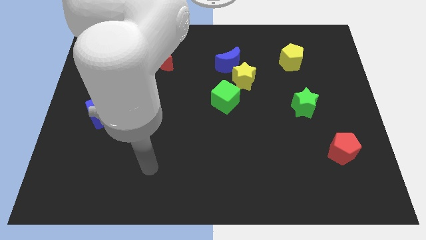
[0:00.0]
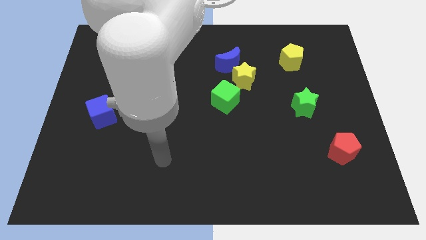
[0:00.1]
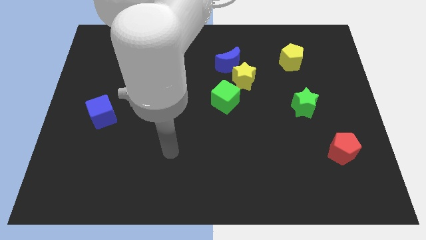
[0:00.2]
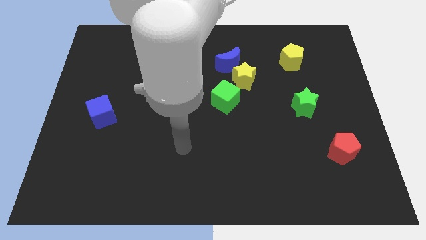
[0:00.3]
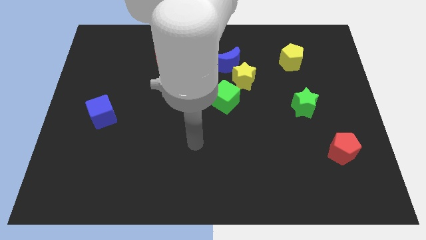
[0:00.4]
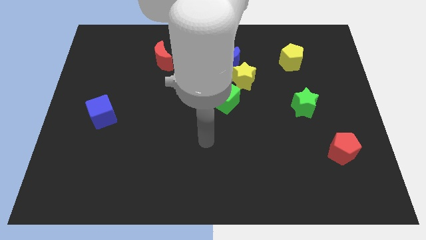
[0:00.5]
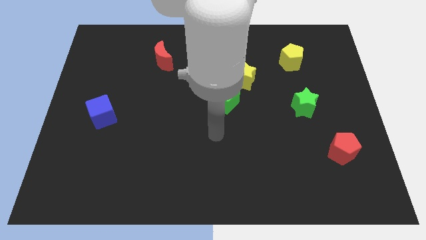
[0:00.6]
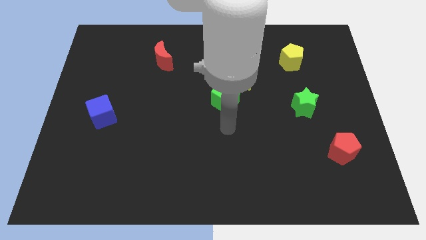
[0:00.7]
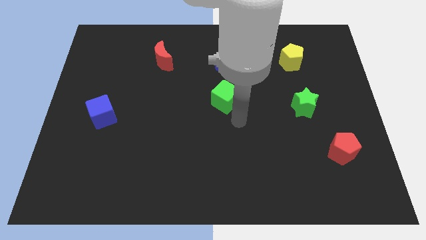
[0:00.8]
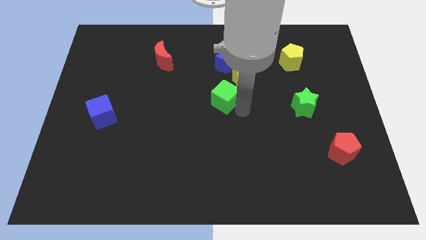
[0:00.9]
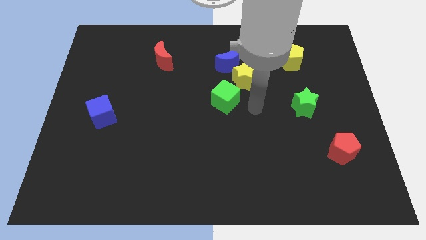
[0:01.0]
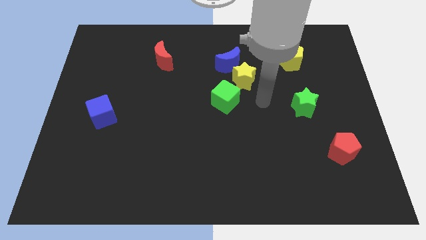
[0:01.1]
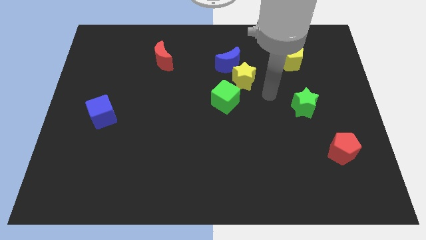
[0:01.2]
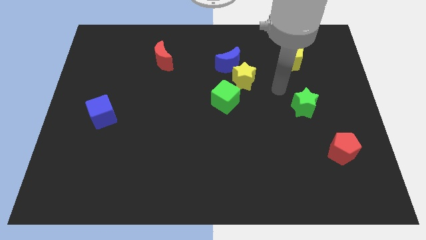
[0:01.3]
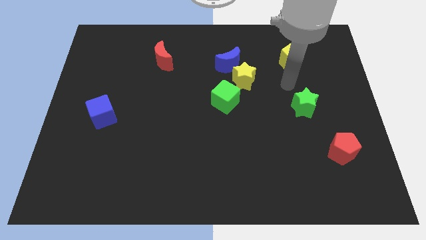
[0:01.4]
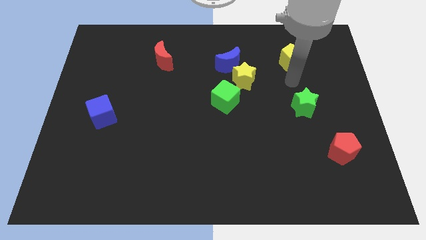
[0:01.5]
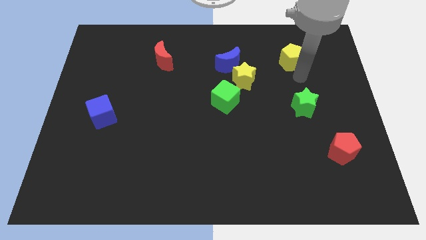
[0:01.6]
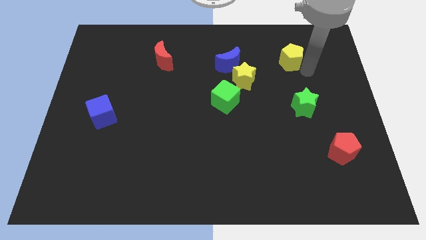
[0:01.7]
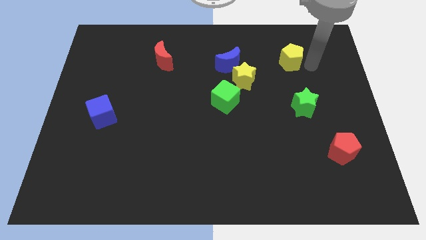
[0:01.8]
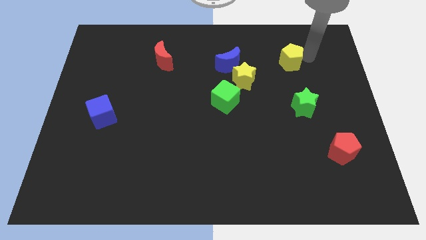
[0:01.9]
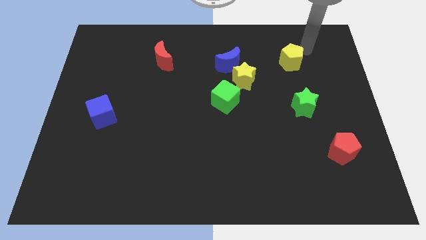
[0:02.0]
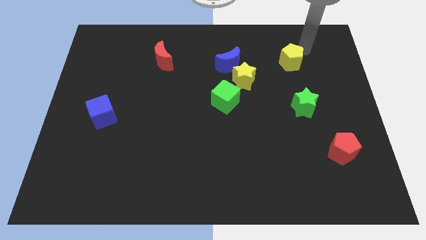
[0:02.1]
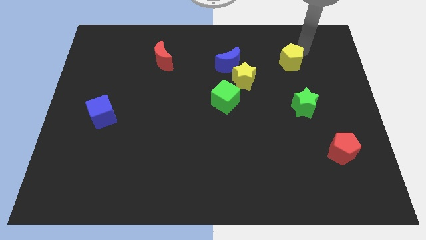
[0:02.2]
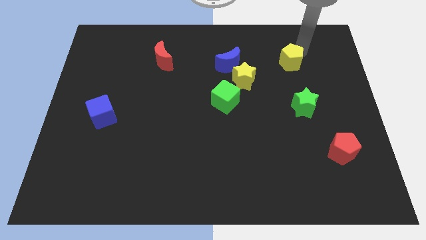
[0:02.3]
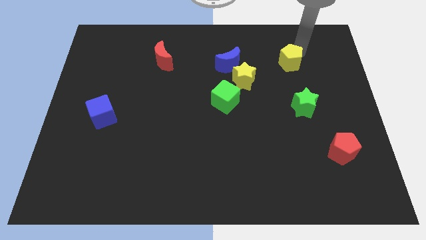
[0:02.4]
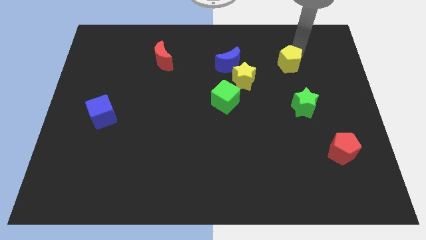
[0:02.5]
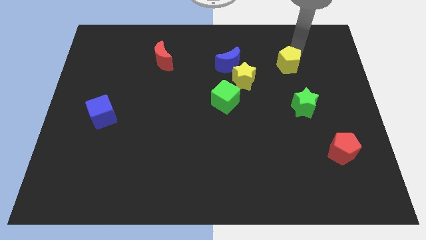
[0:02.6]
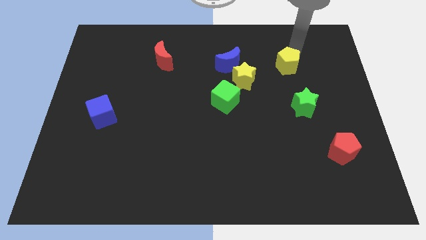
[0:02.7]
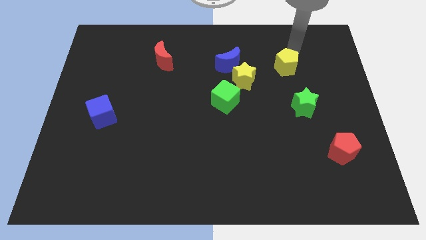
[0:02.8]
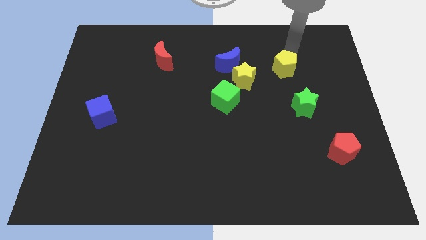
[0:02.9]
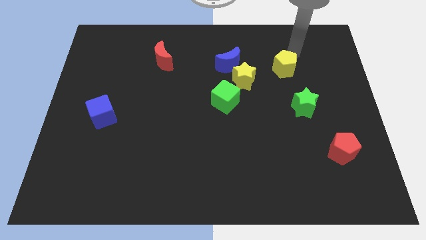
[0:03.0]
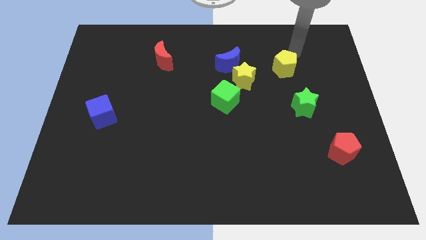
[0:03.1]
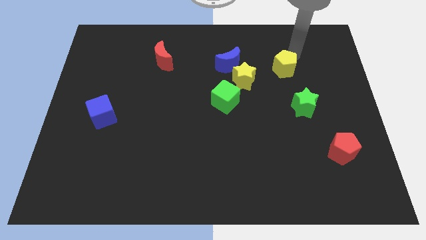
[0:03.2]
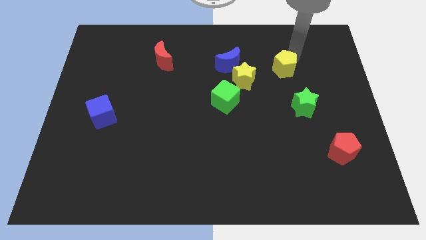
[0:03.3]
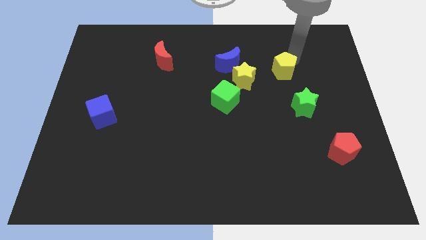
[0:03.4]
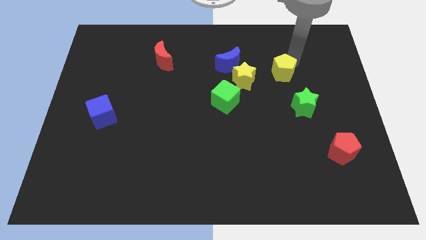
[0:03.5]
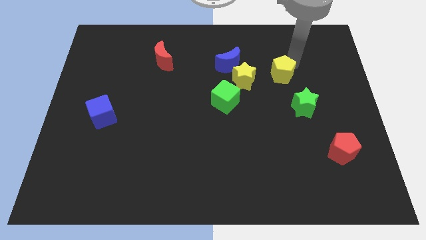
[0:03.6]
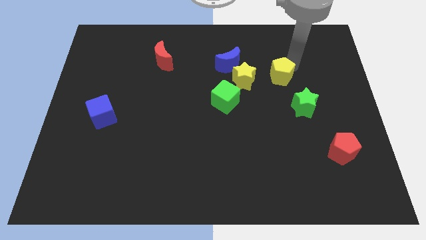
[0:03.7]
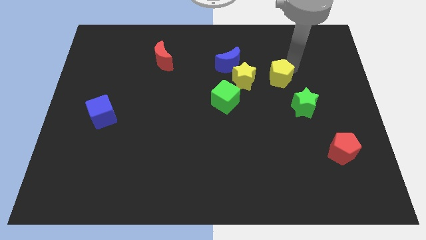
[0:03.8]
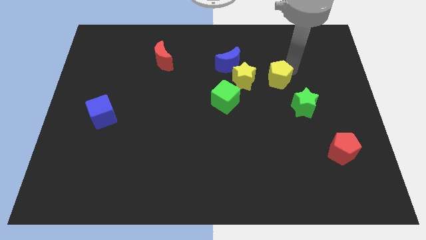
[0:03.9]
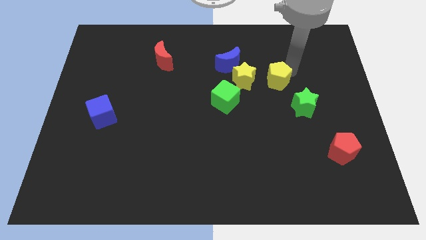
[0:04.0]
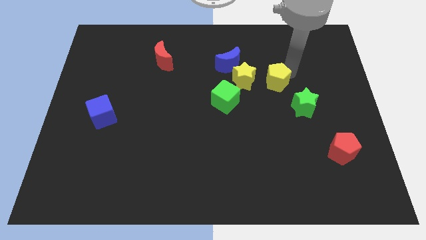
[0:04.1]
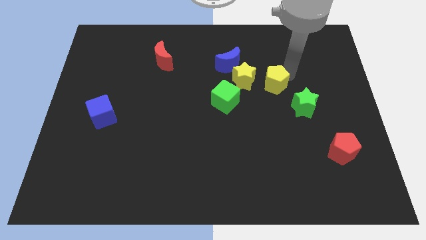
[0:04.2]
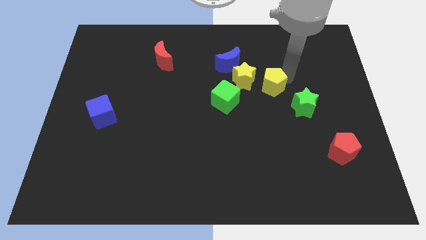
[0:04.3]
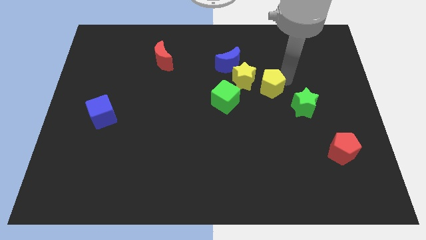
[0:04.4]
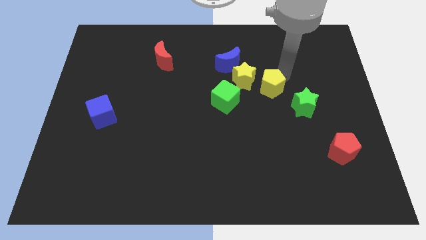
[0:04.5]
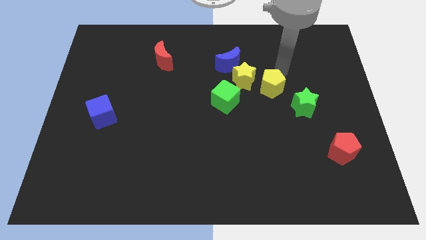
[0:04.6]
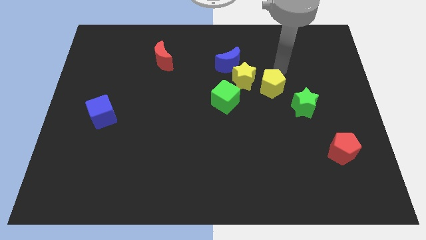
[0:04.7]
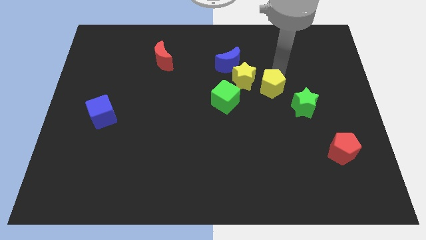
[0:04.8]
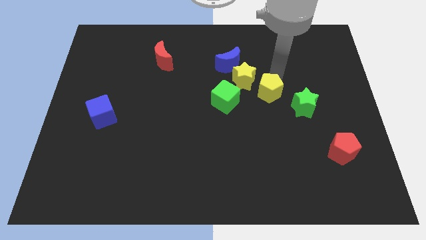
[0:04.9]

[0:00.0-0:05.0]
push the yellow pentagon to the left of the green star

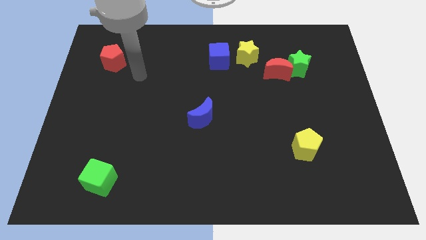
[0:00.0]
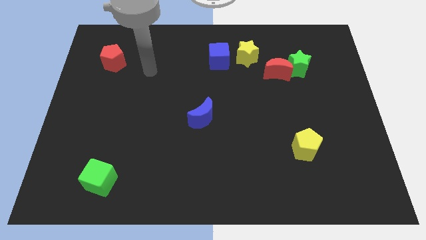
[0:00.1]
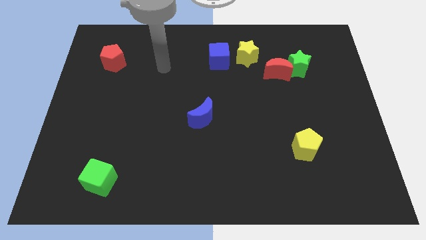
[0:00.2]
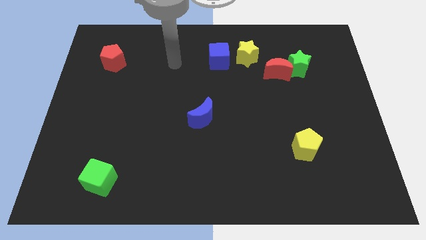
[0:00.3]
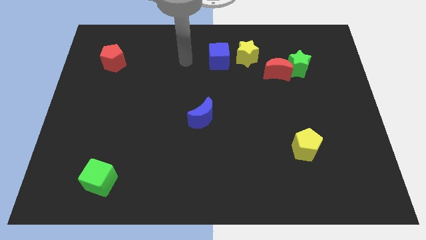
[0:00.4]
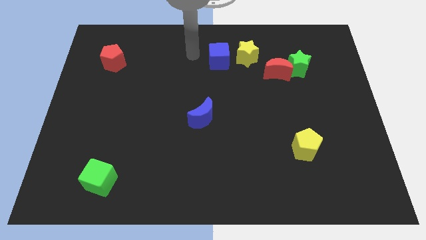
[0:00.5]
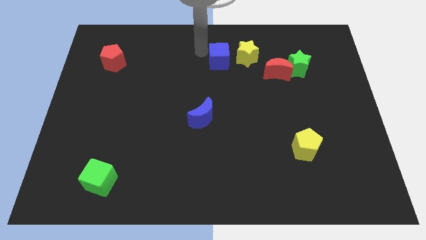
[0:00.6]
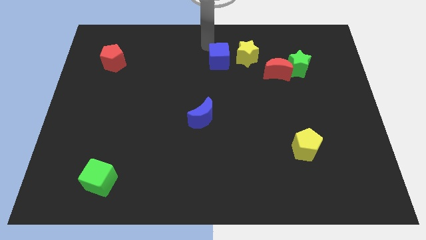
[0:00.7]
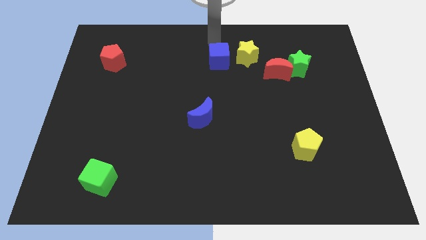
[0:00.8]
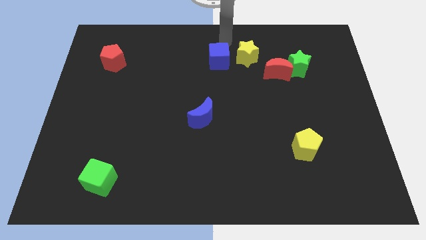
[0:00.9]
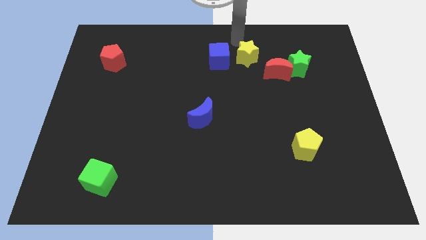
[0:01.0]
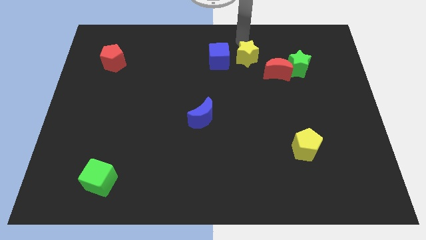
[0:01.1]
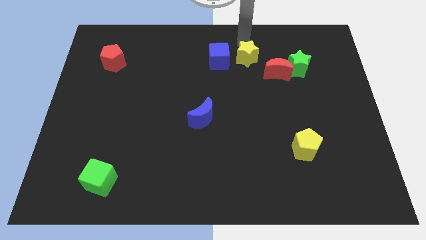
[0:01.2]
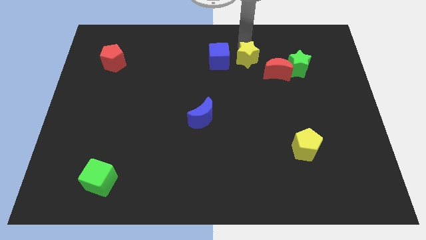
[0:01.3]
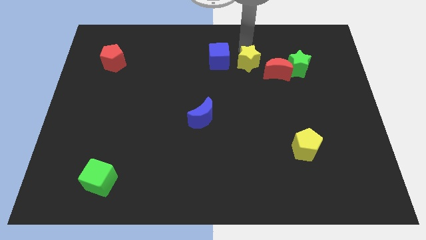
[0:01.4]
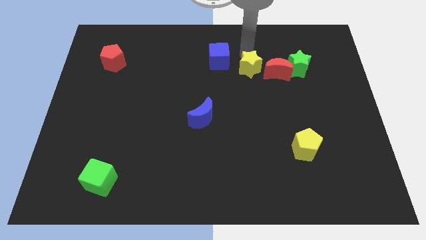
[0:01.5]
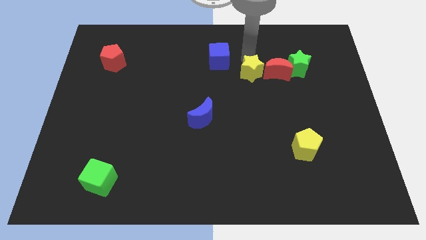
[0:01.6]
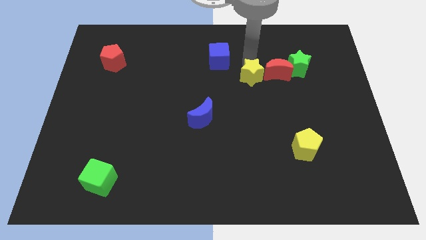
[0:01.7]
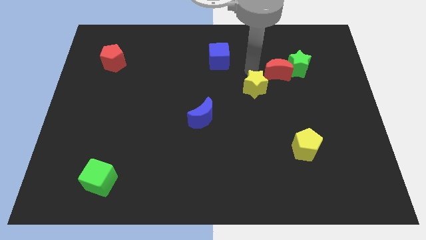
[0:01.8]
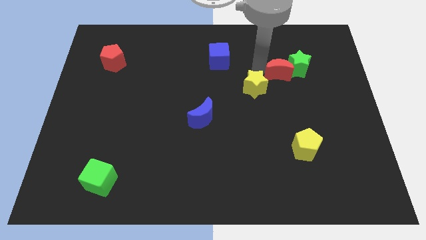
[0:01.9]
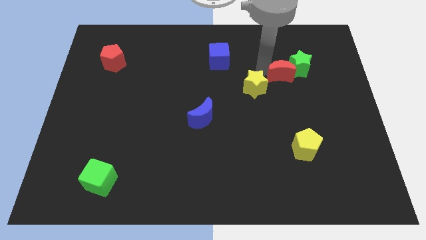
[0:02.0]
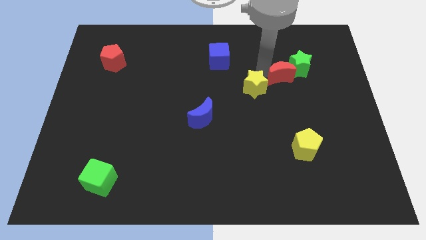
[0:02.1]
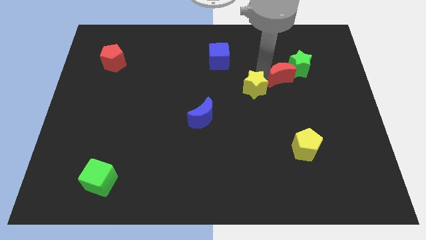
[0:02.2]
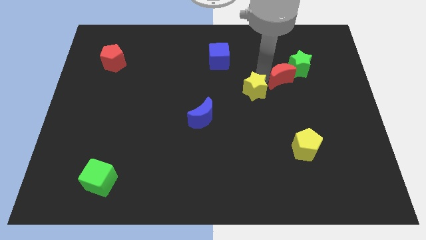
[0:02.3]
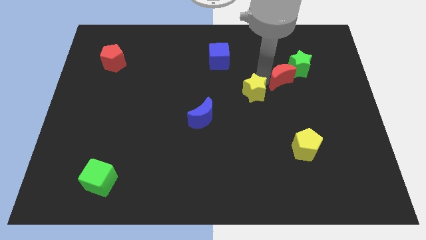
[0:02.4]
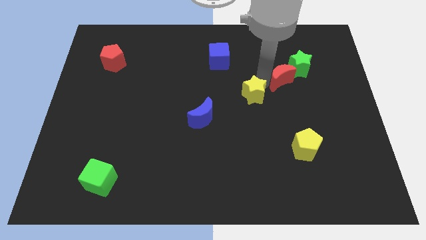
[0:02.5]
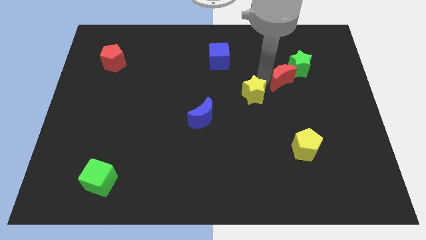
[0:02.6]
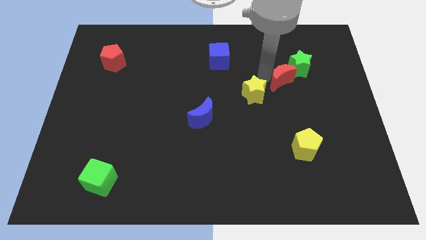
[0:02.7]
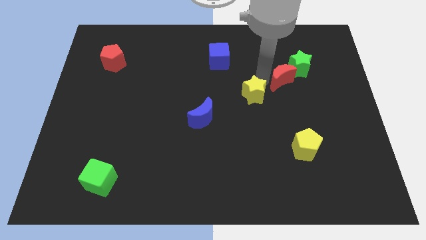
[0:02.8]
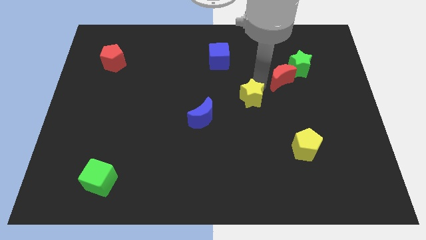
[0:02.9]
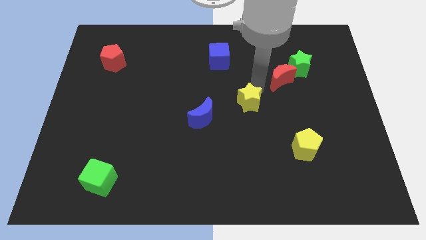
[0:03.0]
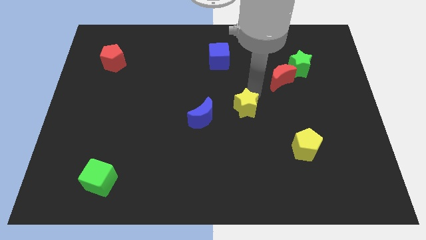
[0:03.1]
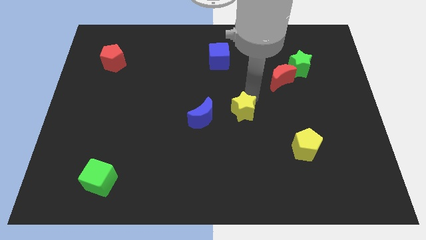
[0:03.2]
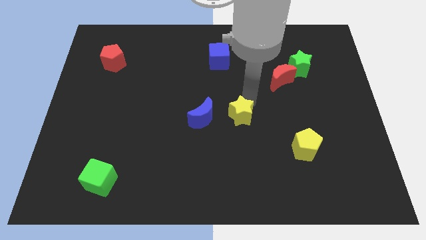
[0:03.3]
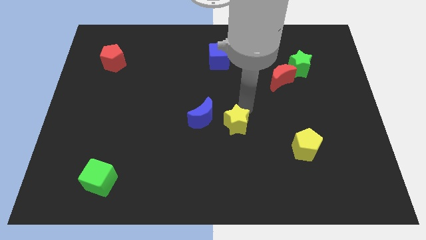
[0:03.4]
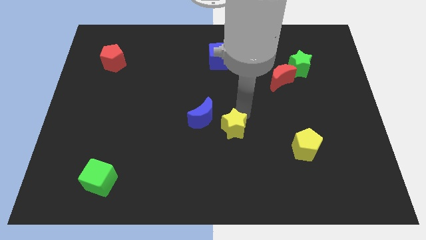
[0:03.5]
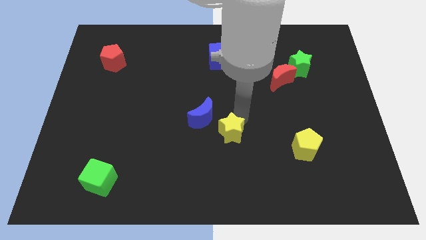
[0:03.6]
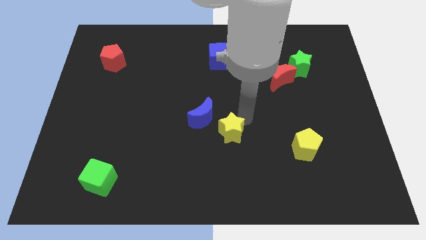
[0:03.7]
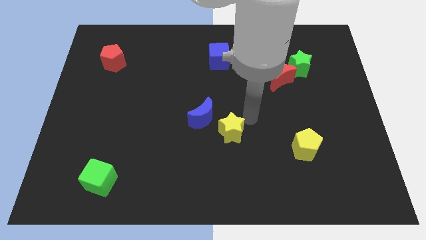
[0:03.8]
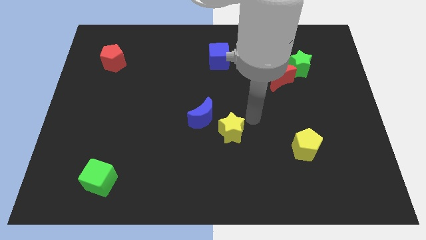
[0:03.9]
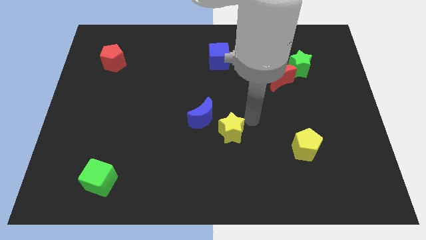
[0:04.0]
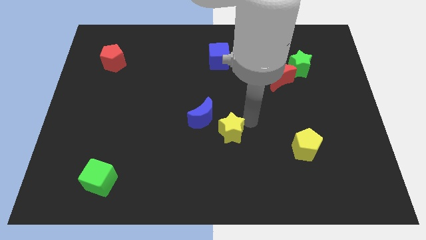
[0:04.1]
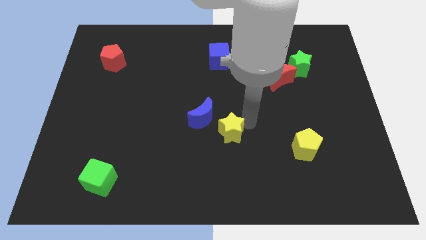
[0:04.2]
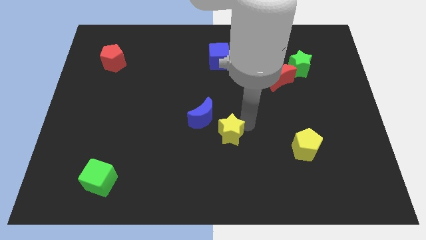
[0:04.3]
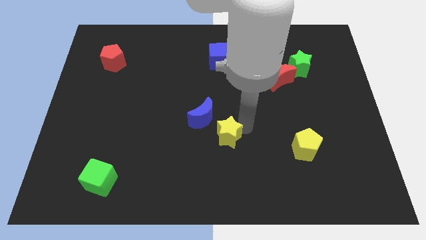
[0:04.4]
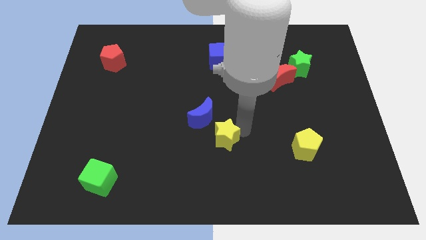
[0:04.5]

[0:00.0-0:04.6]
slide the yellow star to the bottom side of the blue moon
